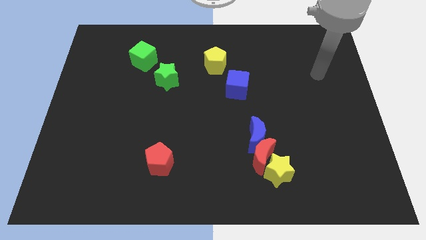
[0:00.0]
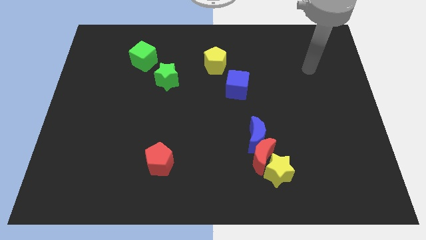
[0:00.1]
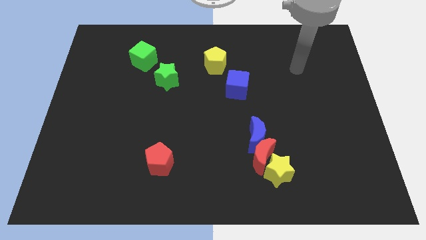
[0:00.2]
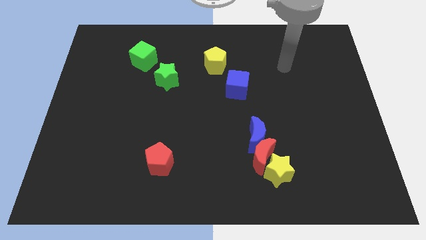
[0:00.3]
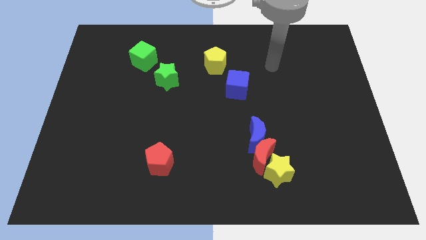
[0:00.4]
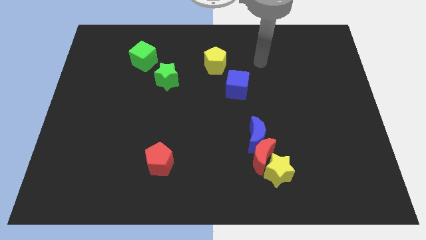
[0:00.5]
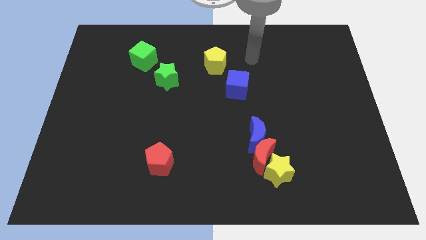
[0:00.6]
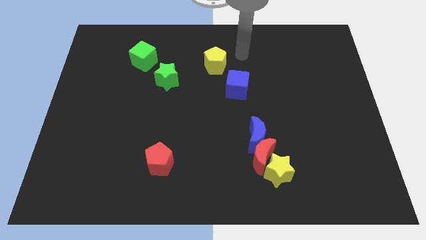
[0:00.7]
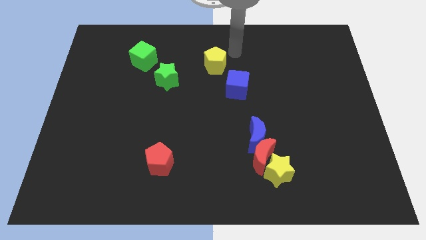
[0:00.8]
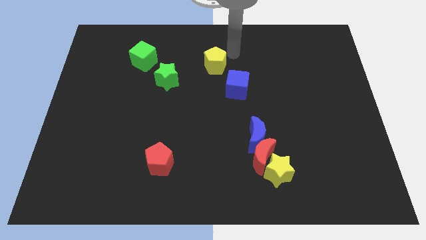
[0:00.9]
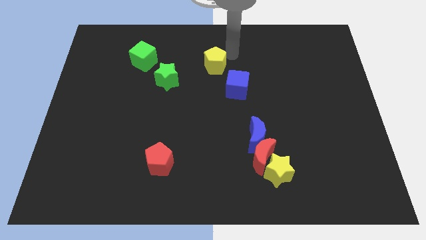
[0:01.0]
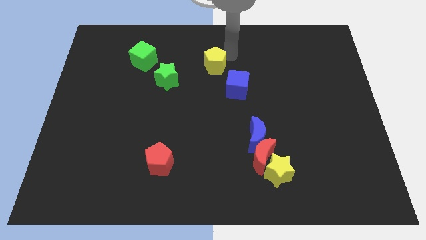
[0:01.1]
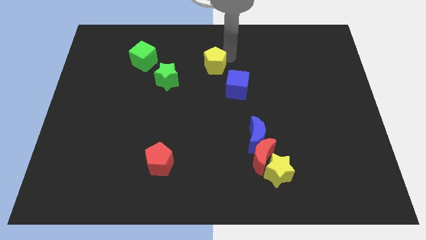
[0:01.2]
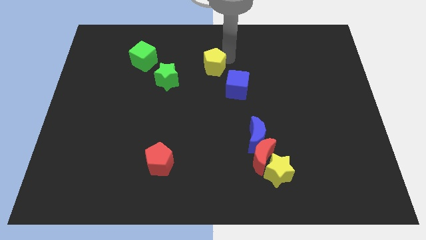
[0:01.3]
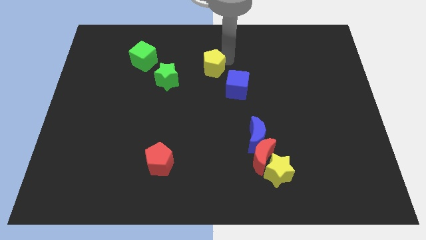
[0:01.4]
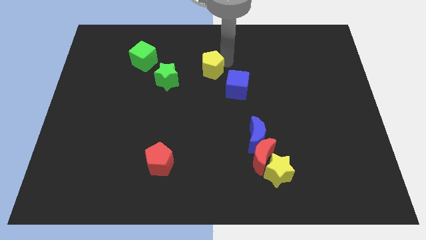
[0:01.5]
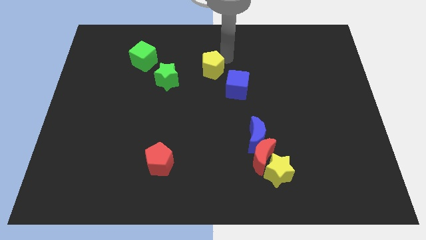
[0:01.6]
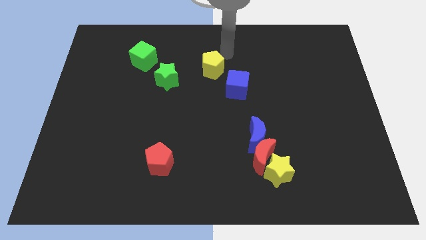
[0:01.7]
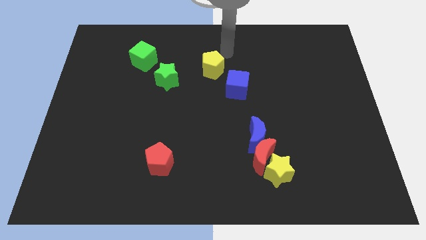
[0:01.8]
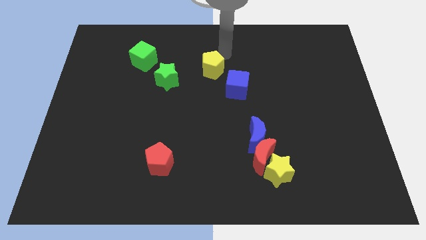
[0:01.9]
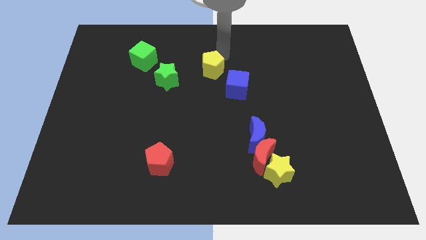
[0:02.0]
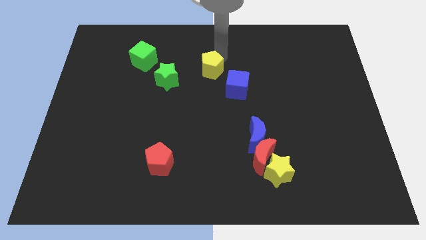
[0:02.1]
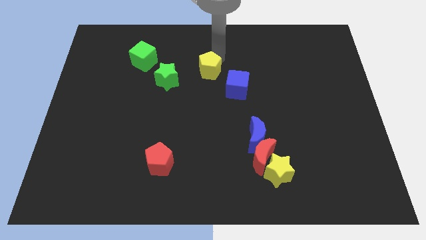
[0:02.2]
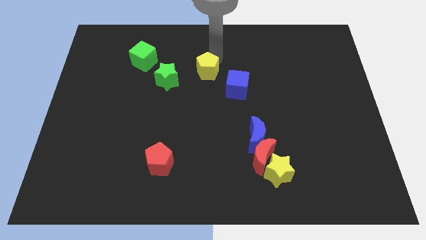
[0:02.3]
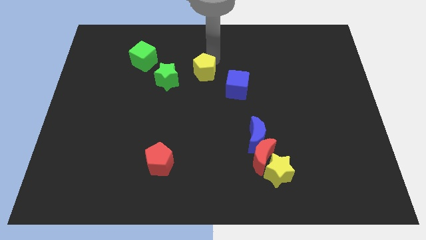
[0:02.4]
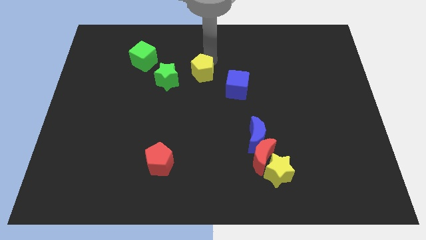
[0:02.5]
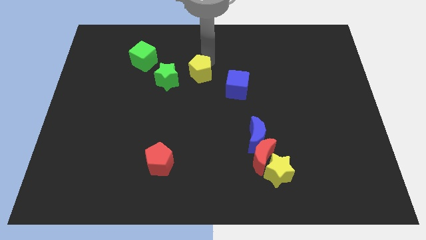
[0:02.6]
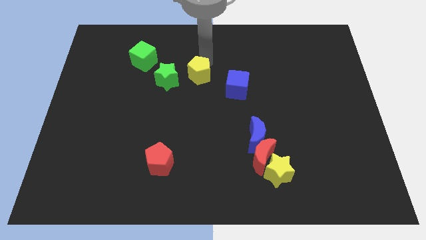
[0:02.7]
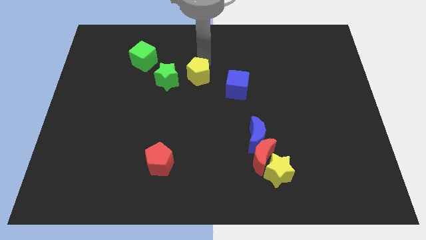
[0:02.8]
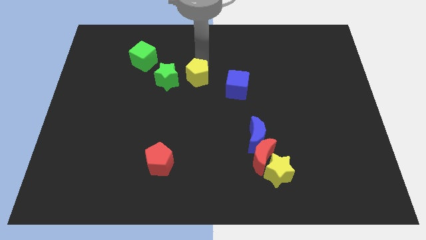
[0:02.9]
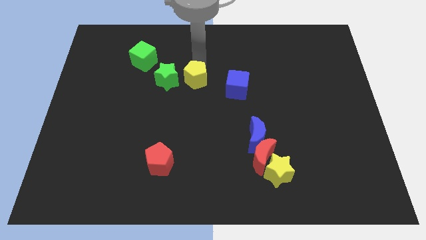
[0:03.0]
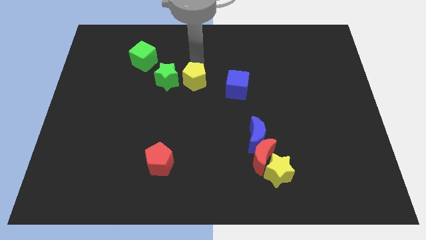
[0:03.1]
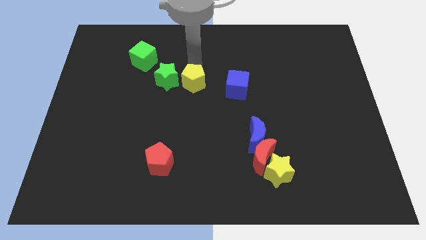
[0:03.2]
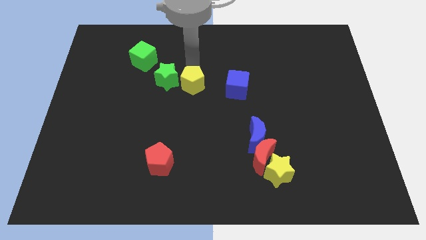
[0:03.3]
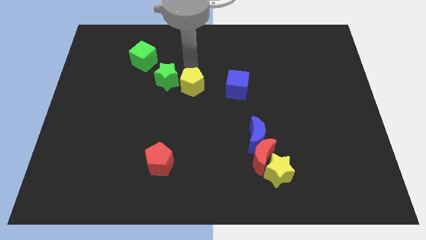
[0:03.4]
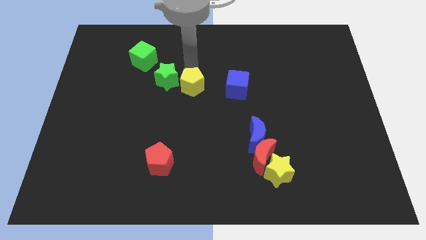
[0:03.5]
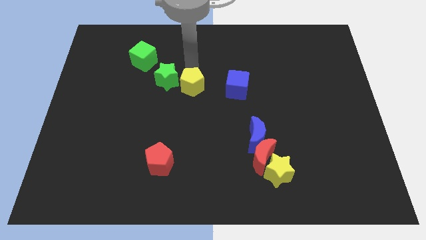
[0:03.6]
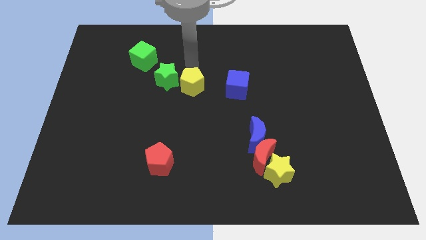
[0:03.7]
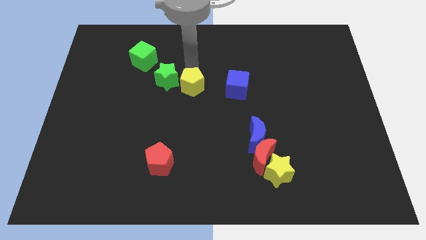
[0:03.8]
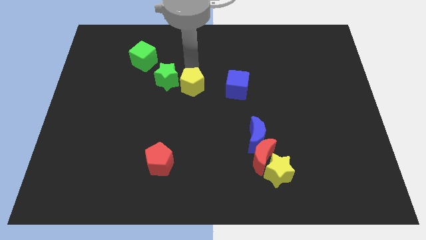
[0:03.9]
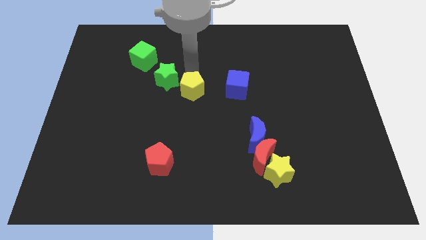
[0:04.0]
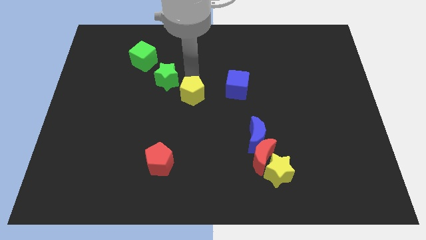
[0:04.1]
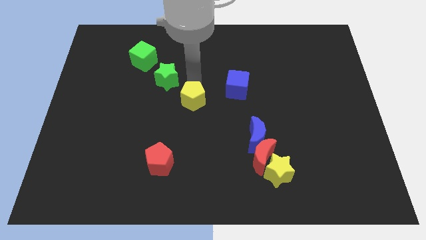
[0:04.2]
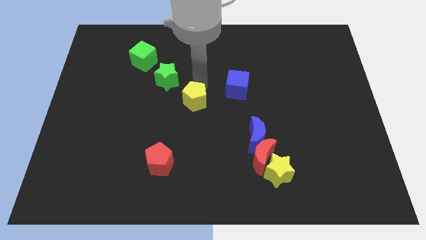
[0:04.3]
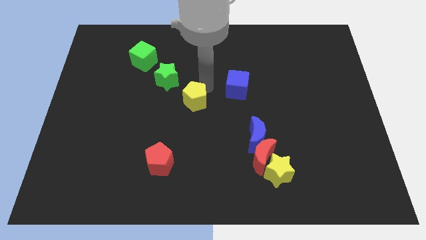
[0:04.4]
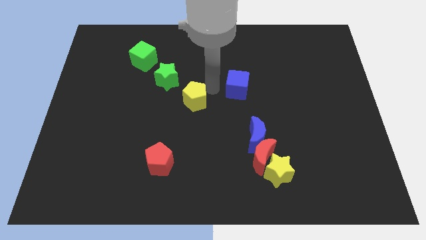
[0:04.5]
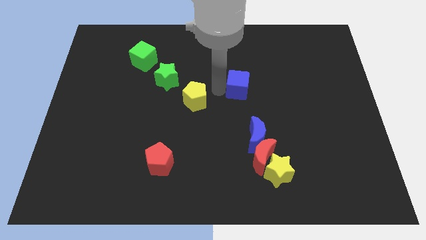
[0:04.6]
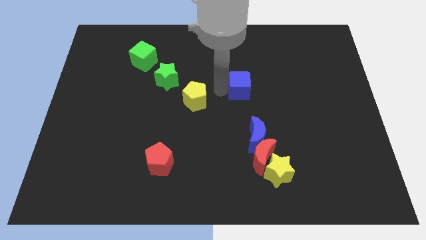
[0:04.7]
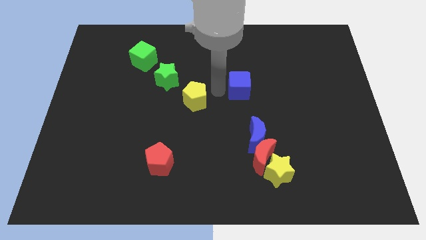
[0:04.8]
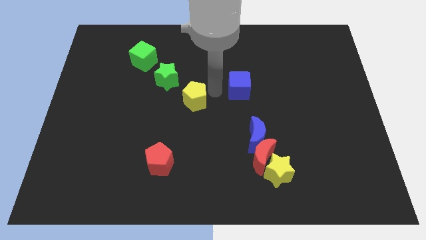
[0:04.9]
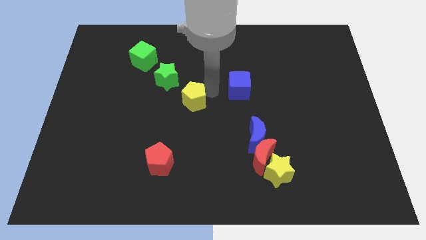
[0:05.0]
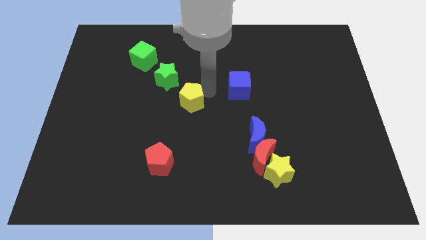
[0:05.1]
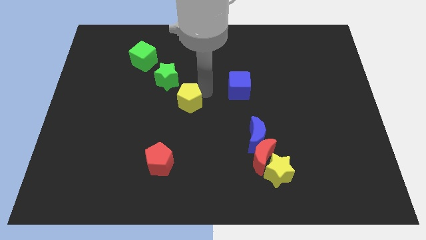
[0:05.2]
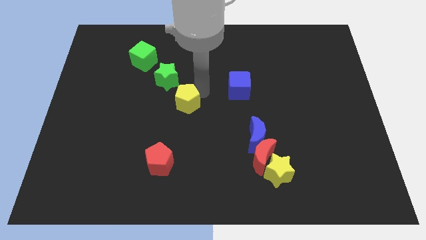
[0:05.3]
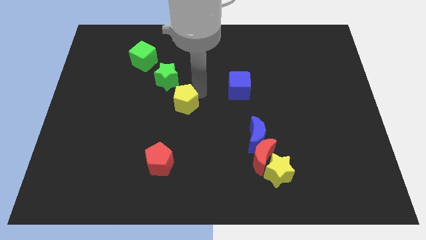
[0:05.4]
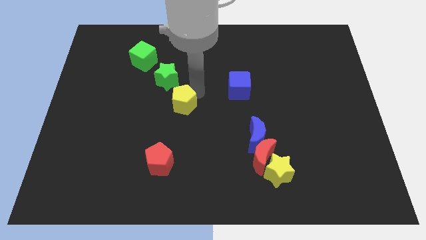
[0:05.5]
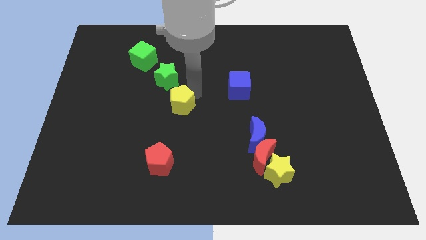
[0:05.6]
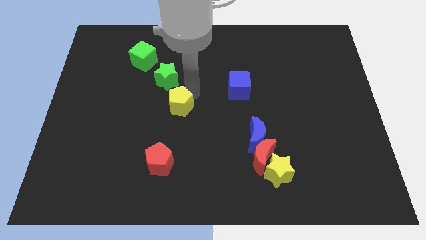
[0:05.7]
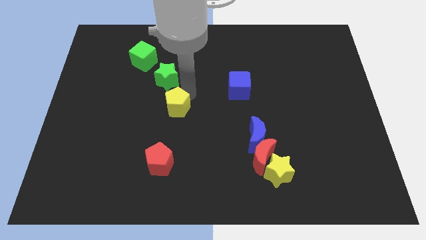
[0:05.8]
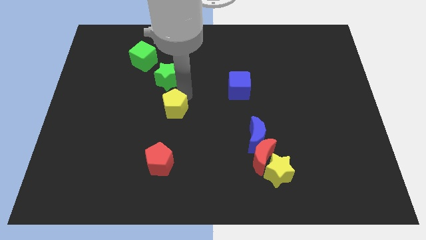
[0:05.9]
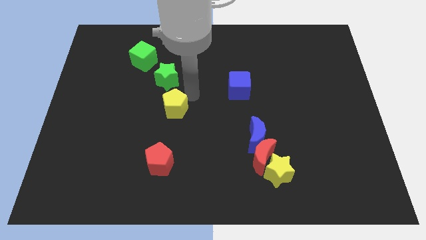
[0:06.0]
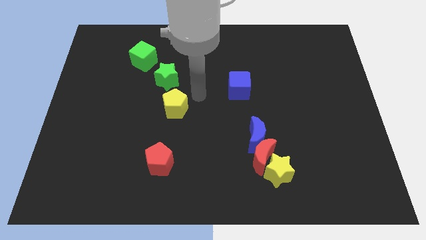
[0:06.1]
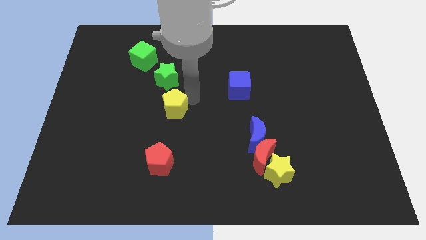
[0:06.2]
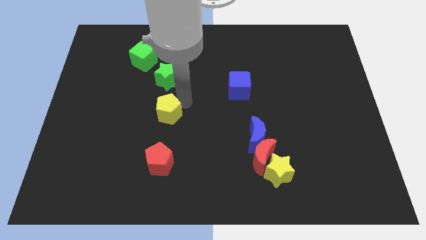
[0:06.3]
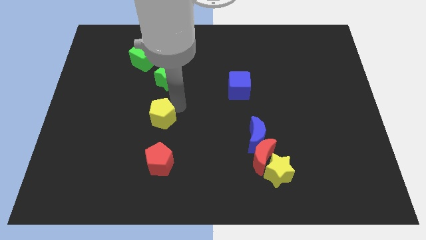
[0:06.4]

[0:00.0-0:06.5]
move the yellow pentagon diagonally downwards and left

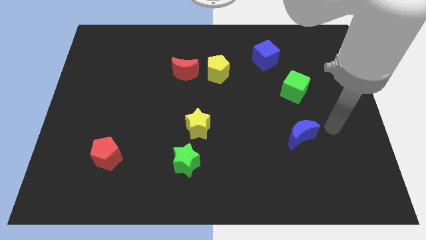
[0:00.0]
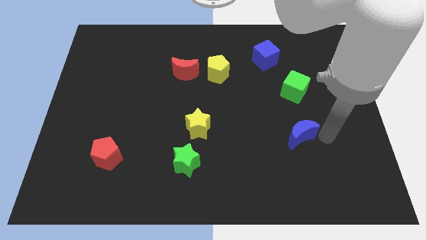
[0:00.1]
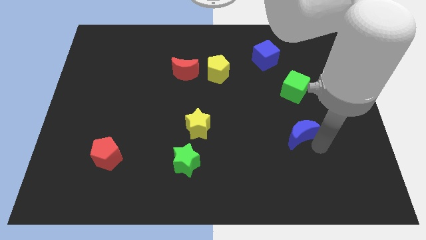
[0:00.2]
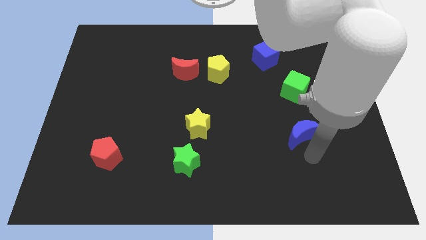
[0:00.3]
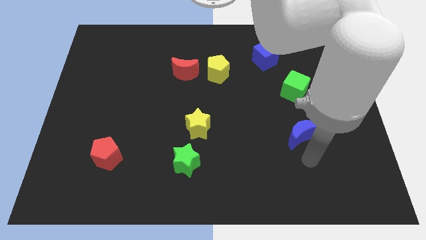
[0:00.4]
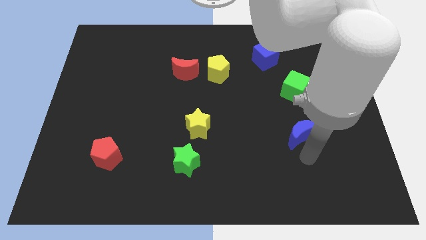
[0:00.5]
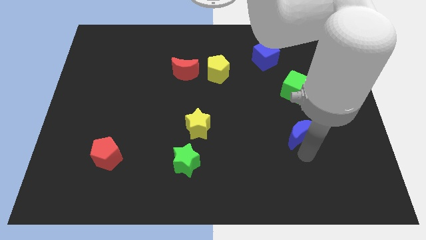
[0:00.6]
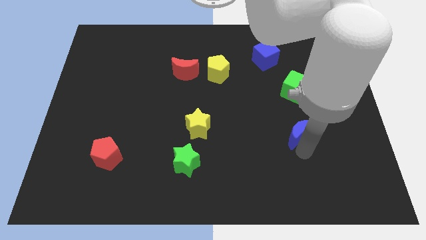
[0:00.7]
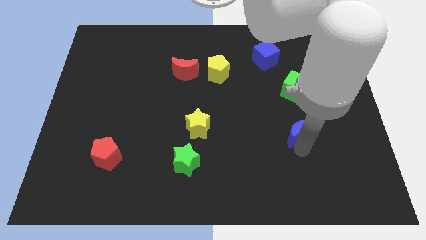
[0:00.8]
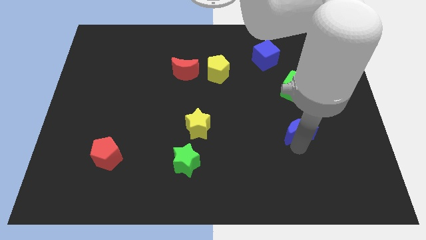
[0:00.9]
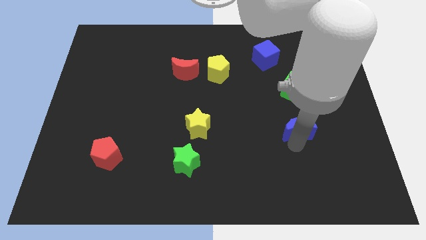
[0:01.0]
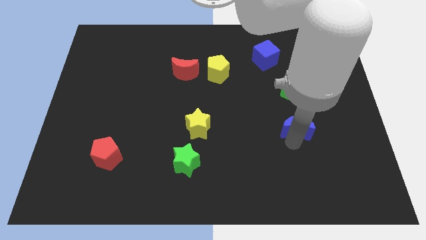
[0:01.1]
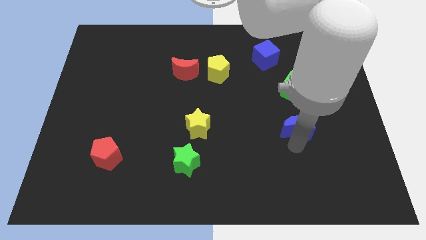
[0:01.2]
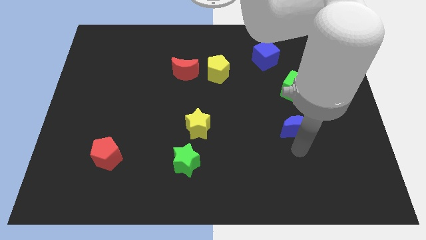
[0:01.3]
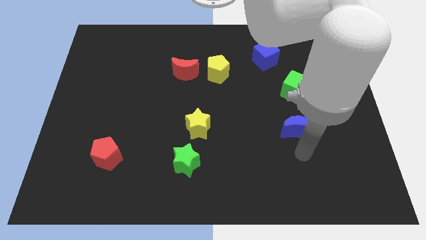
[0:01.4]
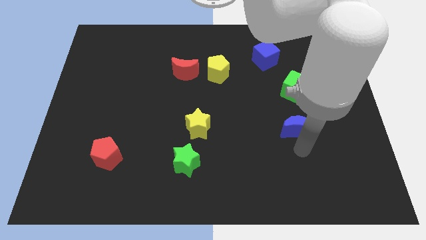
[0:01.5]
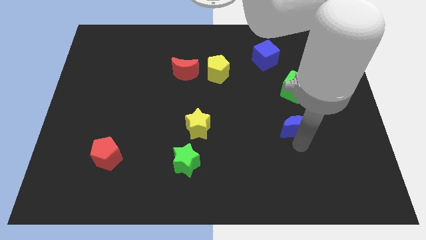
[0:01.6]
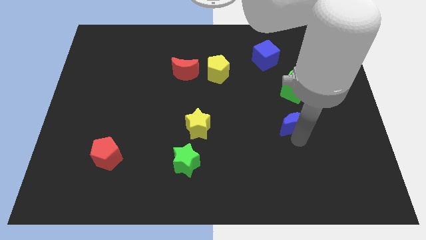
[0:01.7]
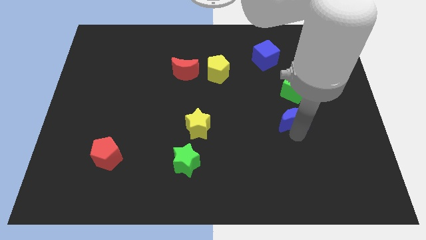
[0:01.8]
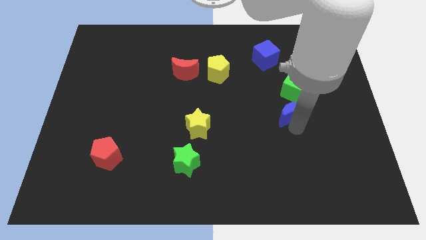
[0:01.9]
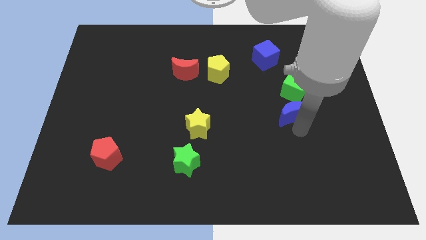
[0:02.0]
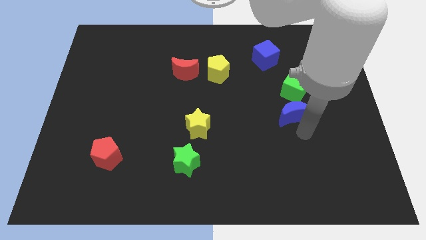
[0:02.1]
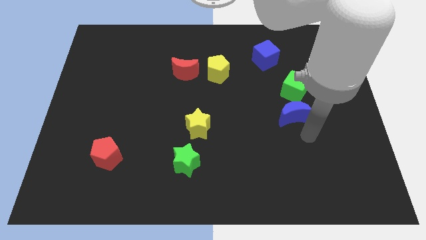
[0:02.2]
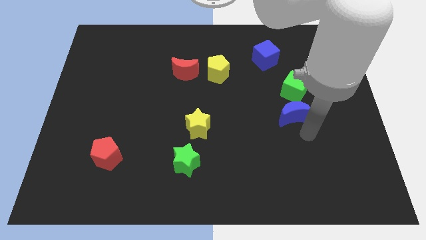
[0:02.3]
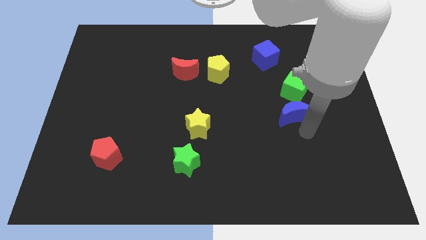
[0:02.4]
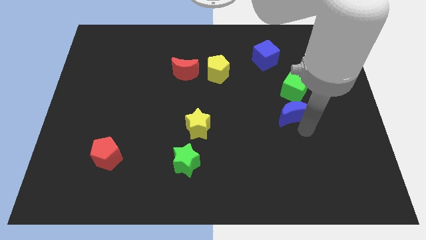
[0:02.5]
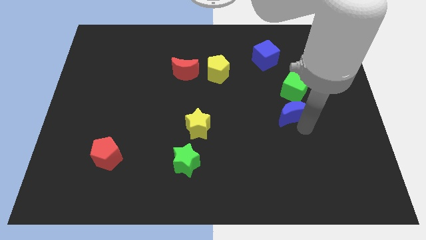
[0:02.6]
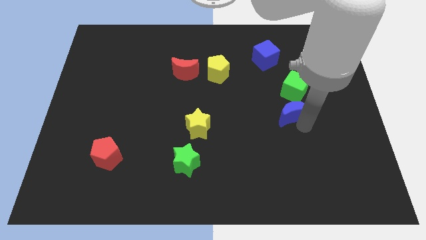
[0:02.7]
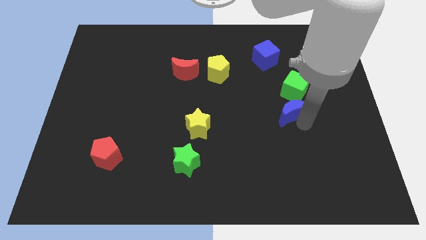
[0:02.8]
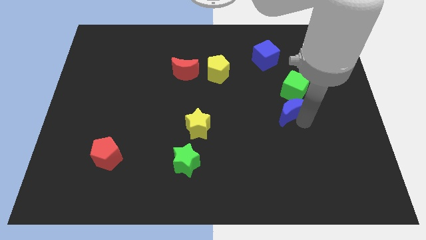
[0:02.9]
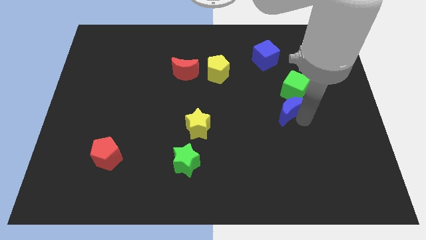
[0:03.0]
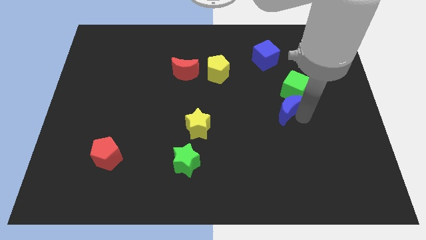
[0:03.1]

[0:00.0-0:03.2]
slide the blue moon a little bit upwards
